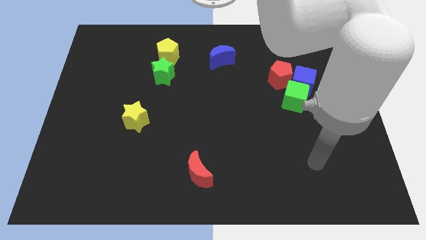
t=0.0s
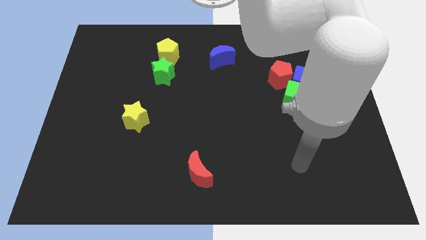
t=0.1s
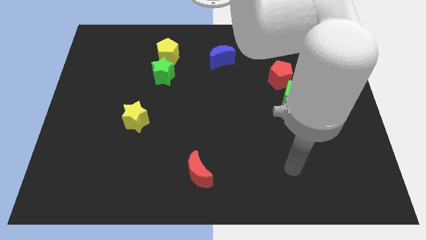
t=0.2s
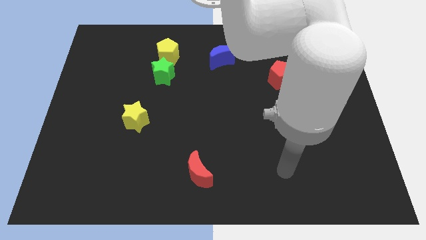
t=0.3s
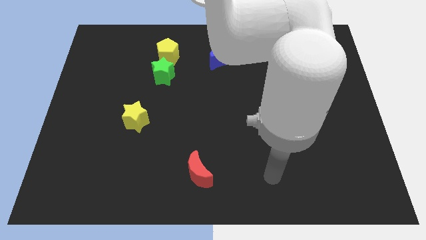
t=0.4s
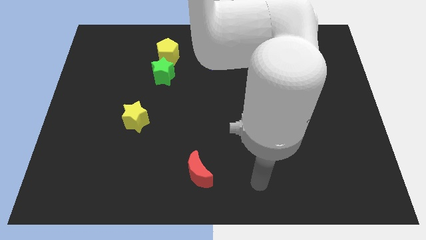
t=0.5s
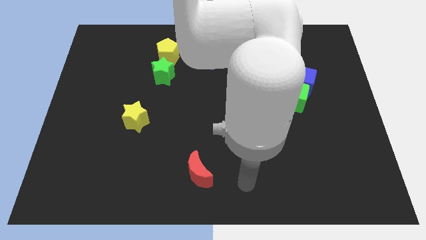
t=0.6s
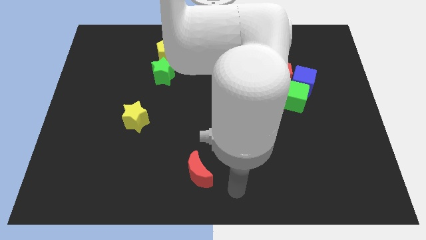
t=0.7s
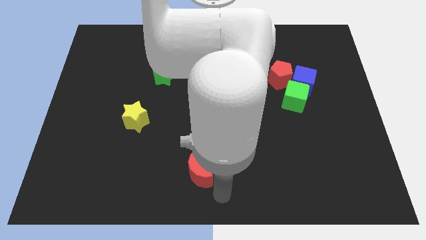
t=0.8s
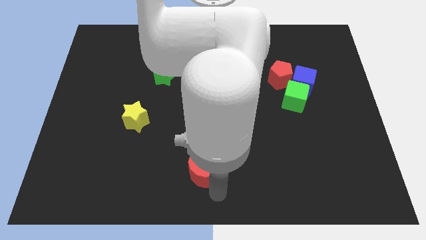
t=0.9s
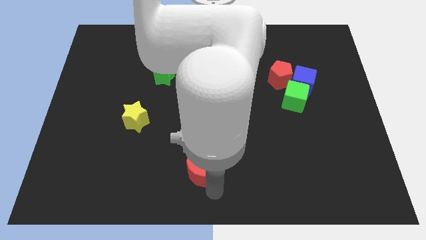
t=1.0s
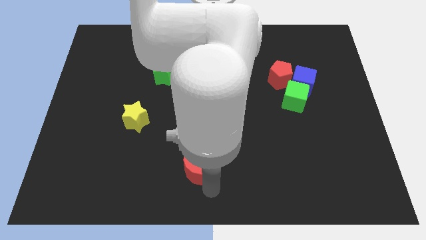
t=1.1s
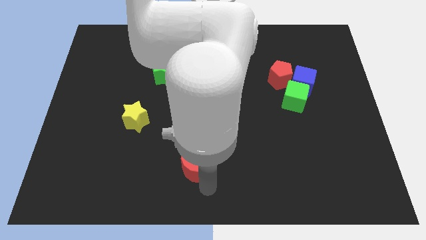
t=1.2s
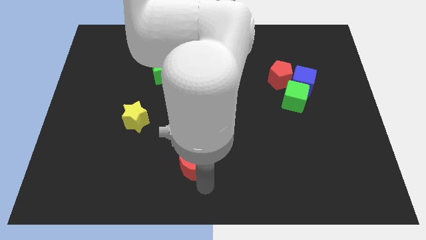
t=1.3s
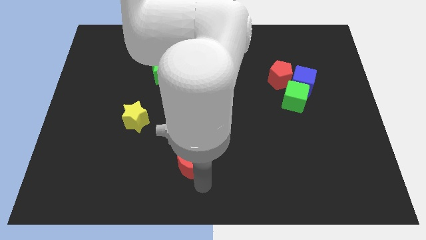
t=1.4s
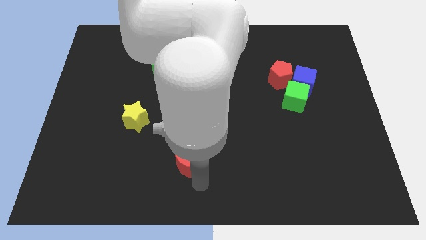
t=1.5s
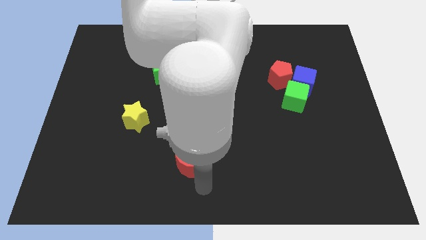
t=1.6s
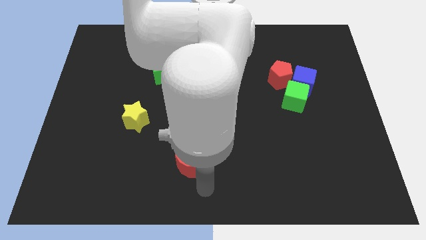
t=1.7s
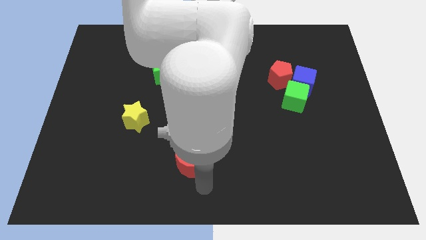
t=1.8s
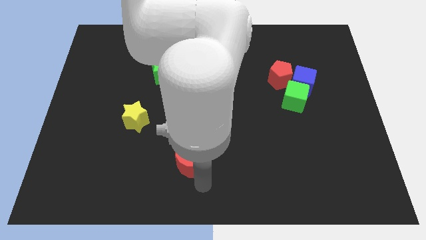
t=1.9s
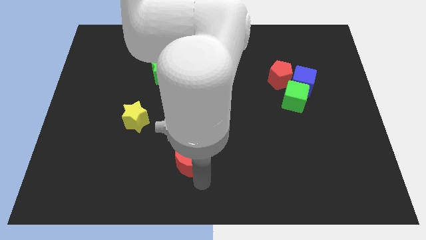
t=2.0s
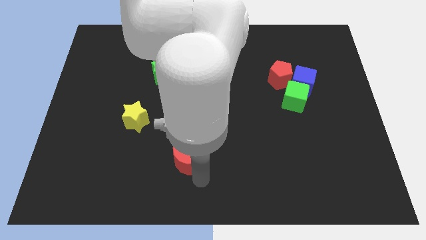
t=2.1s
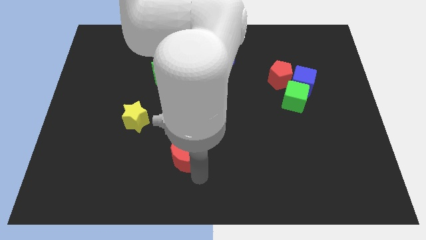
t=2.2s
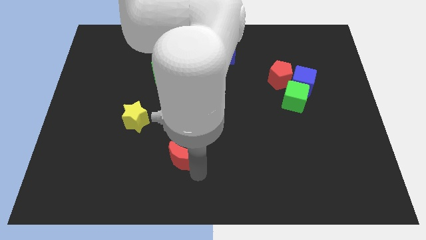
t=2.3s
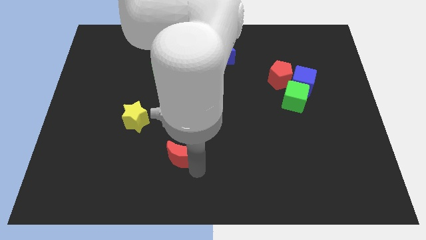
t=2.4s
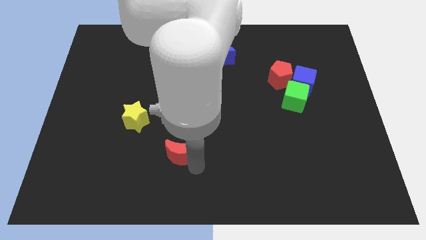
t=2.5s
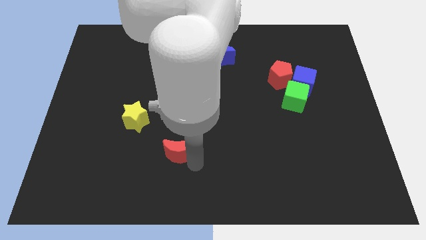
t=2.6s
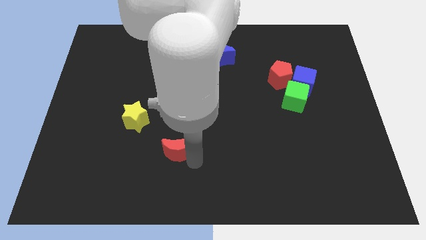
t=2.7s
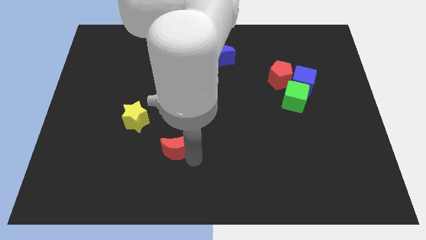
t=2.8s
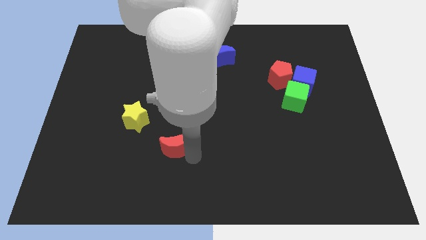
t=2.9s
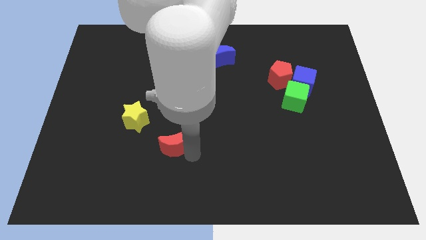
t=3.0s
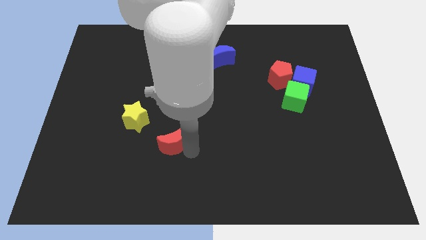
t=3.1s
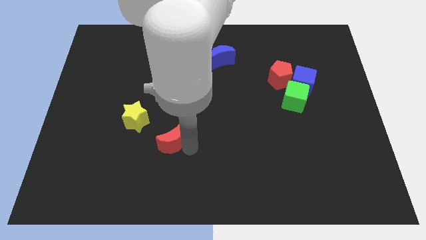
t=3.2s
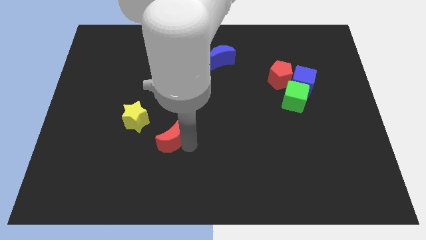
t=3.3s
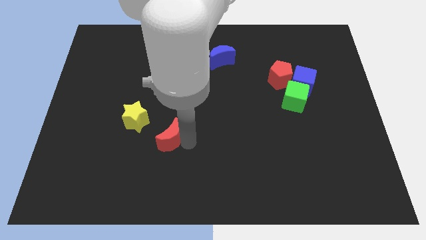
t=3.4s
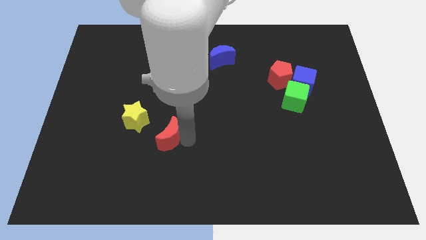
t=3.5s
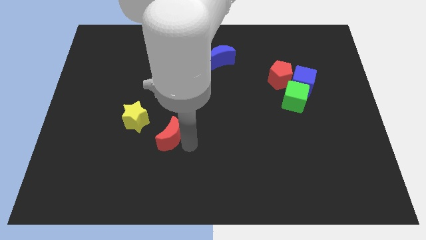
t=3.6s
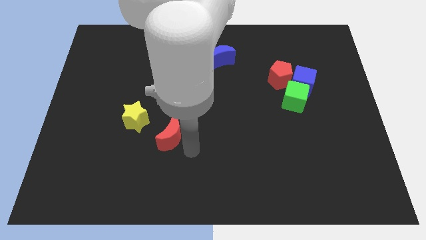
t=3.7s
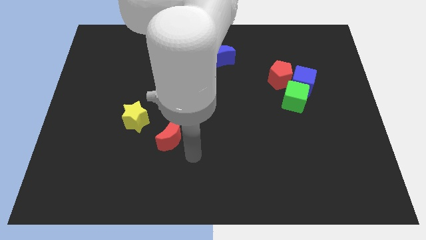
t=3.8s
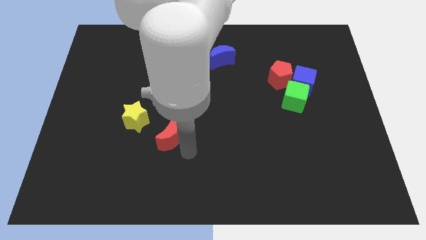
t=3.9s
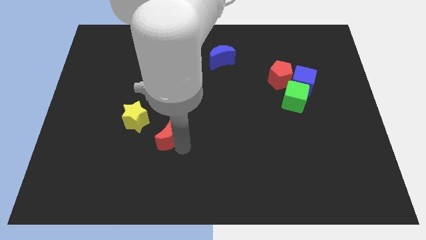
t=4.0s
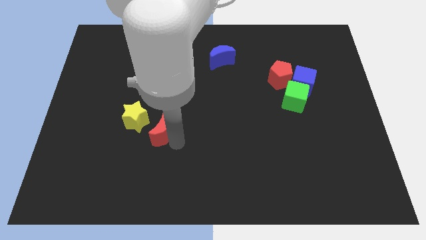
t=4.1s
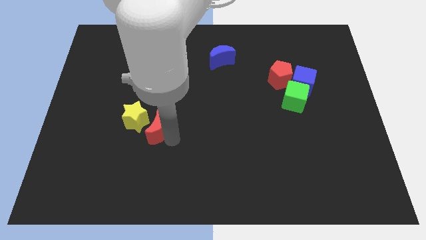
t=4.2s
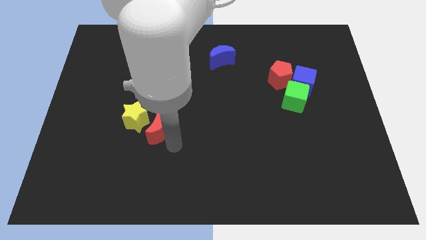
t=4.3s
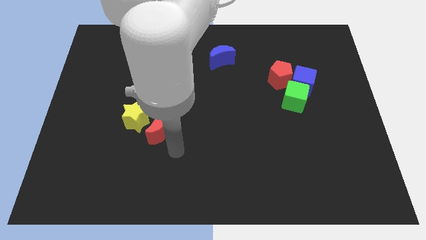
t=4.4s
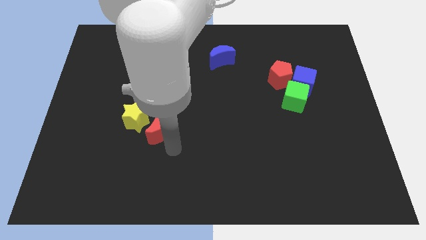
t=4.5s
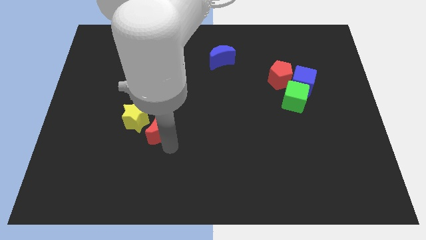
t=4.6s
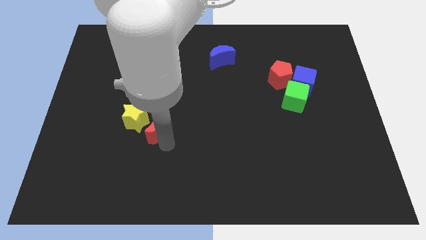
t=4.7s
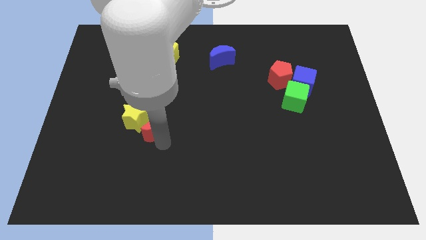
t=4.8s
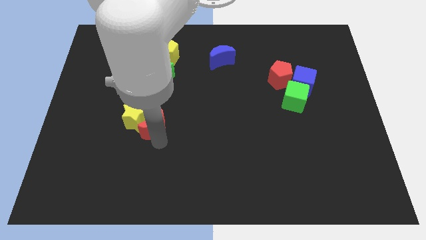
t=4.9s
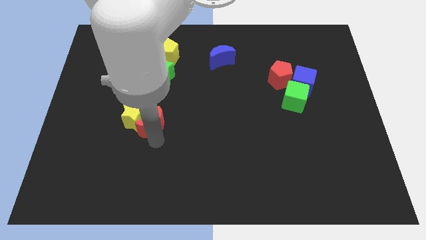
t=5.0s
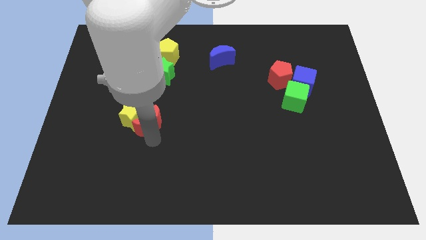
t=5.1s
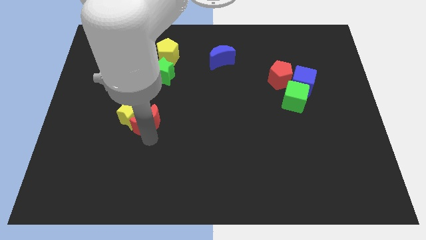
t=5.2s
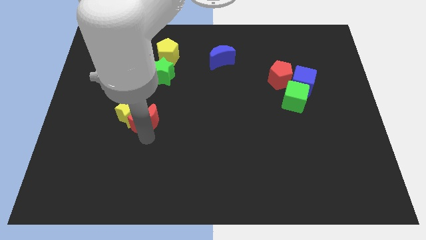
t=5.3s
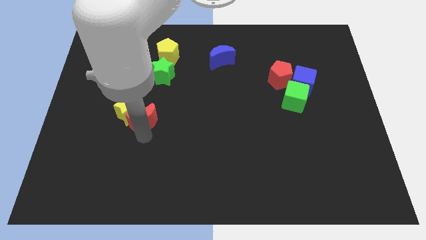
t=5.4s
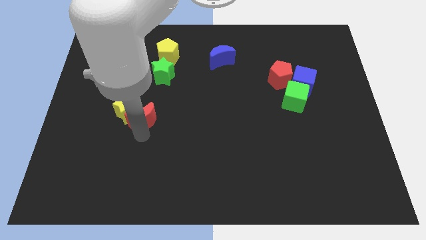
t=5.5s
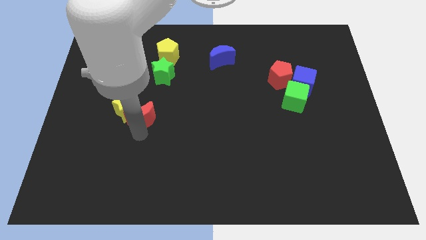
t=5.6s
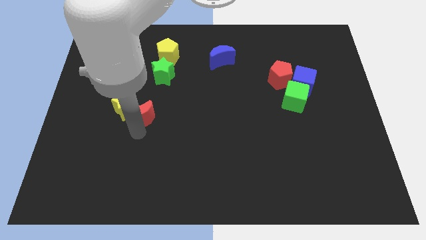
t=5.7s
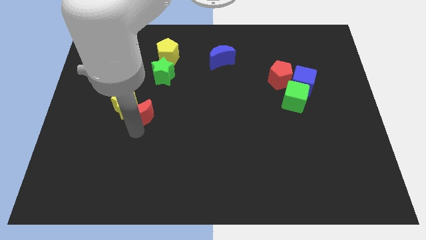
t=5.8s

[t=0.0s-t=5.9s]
move the red moon diagonally up and to the left

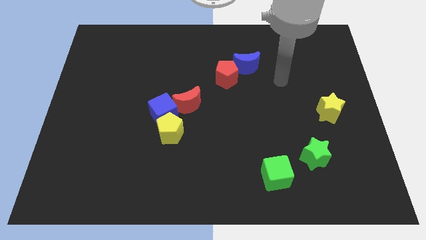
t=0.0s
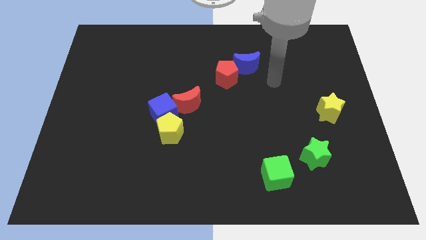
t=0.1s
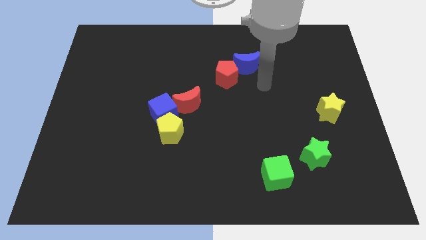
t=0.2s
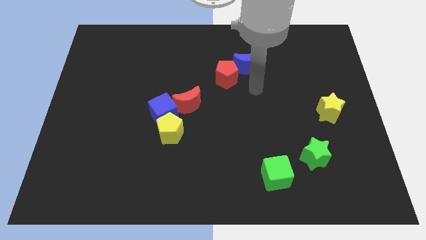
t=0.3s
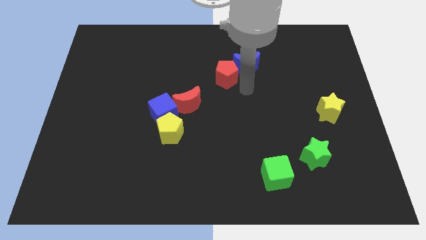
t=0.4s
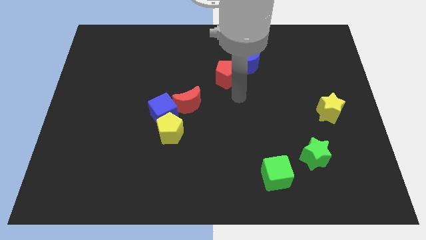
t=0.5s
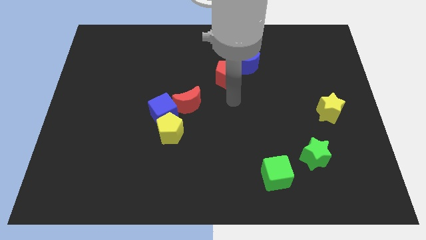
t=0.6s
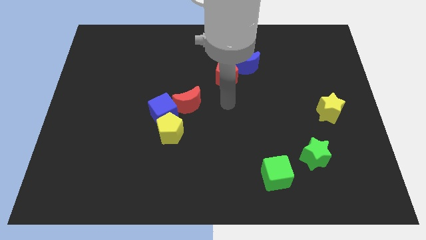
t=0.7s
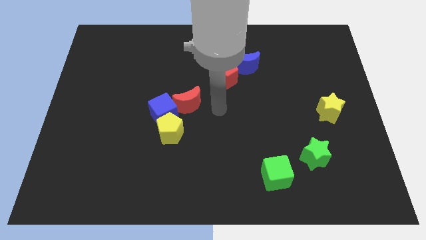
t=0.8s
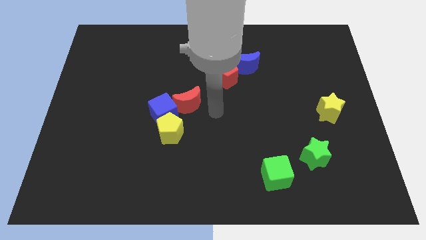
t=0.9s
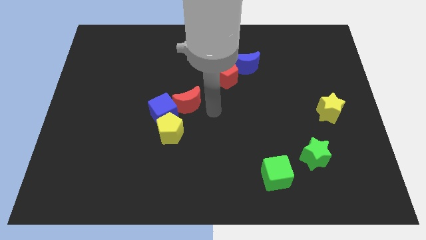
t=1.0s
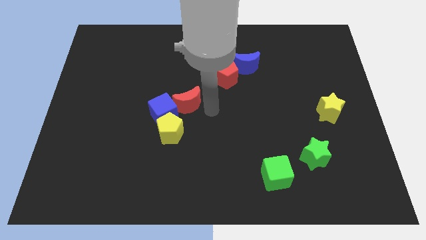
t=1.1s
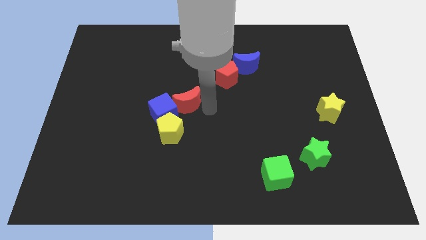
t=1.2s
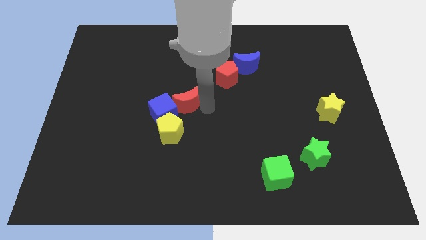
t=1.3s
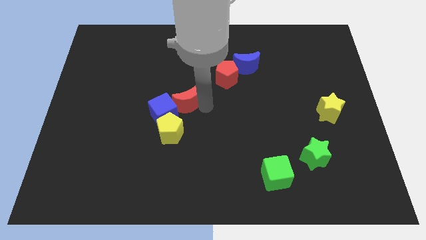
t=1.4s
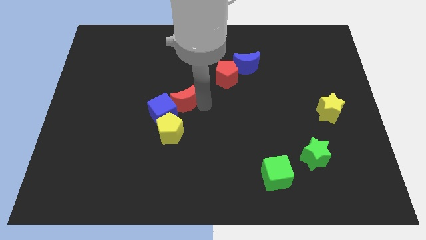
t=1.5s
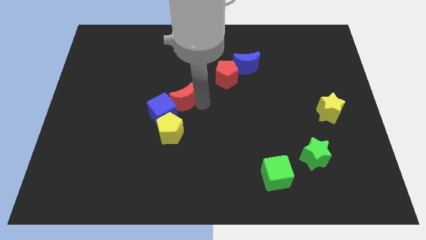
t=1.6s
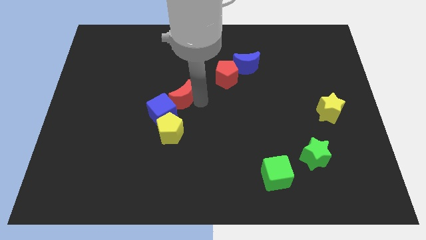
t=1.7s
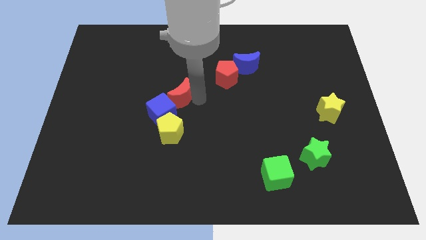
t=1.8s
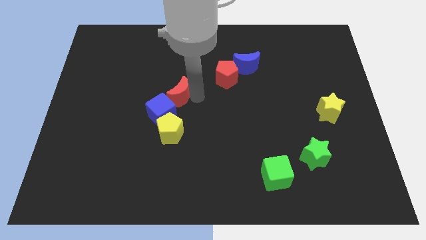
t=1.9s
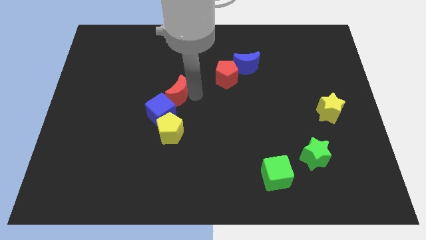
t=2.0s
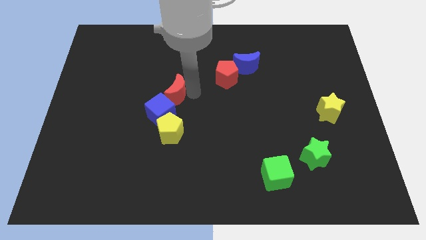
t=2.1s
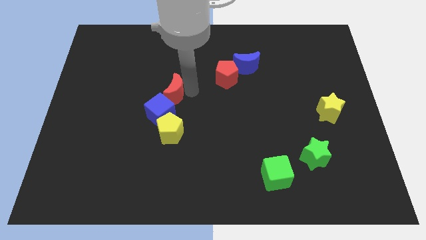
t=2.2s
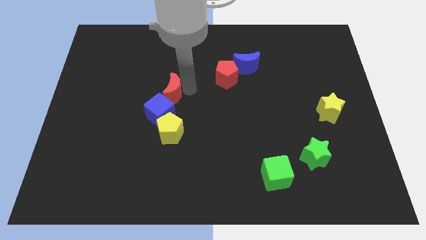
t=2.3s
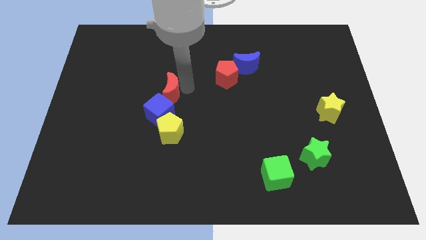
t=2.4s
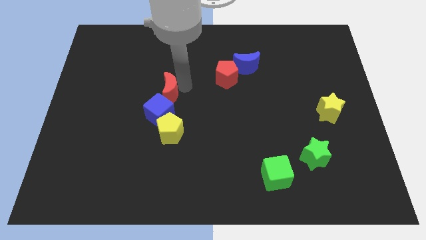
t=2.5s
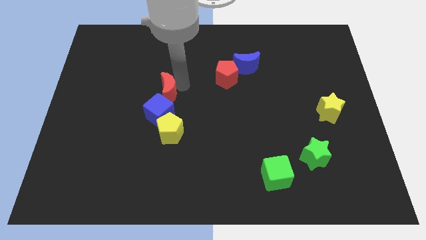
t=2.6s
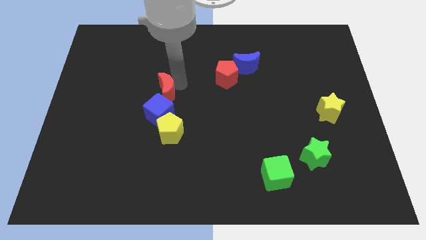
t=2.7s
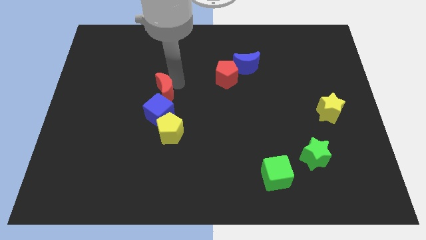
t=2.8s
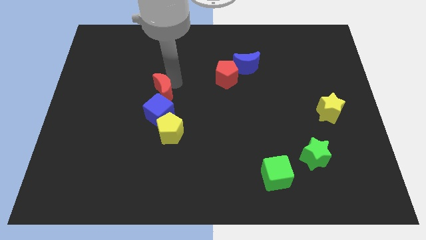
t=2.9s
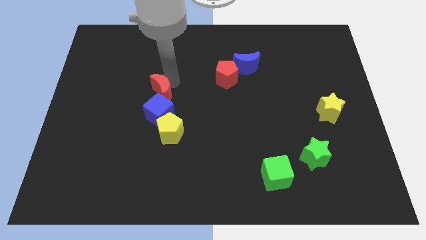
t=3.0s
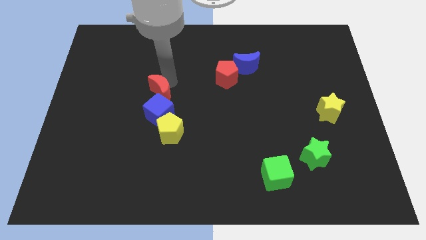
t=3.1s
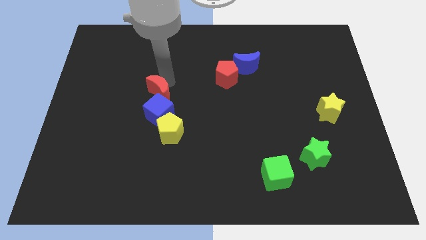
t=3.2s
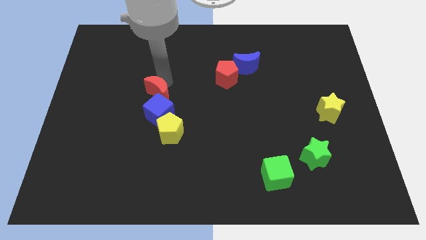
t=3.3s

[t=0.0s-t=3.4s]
slide the red moon a little bit to the left
